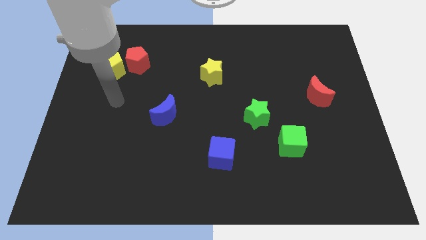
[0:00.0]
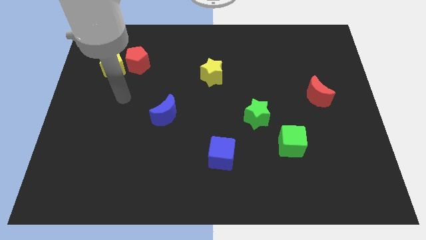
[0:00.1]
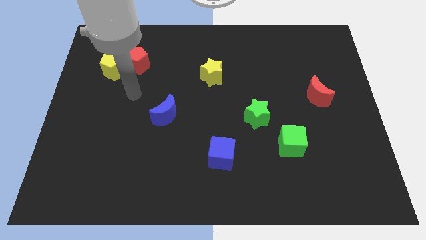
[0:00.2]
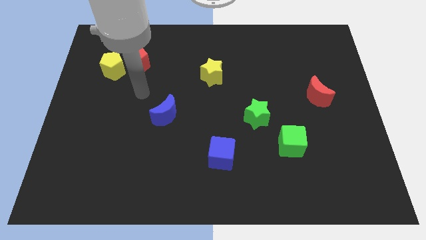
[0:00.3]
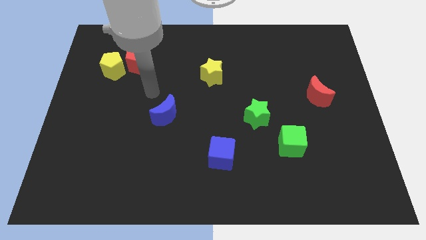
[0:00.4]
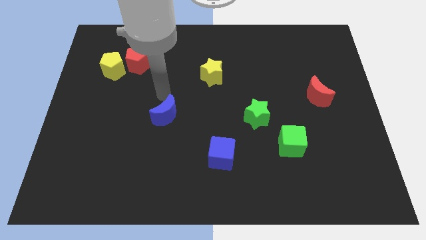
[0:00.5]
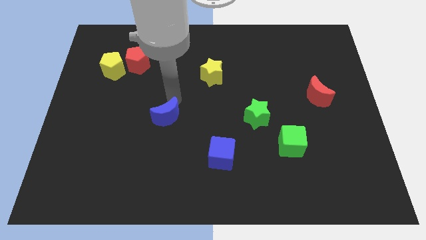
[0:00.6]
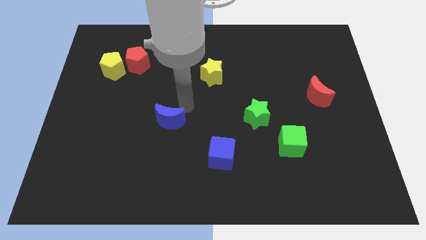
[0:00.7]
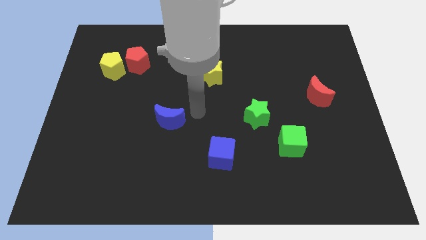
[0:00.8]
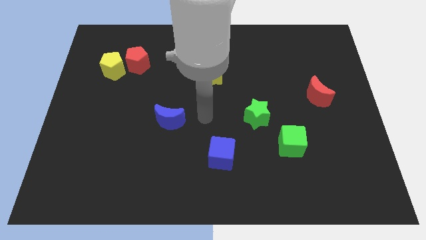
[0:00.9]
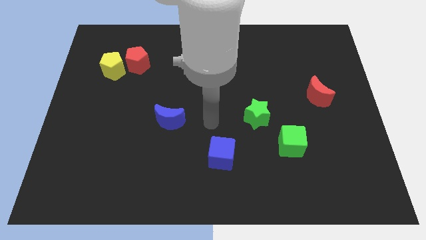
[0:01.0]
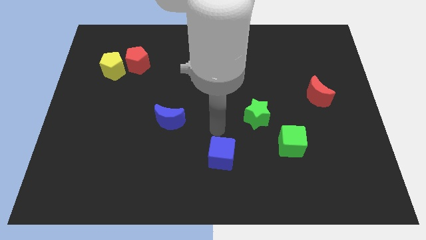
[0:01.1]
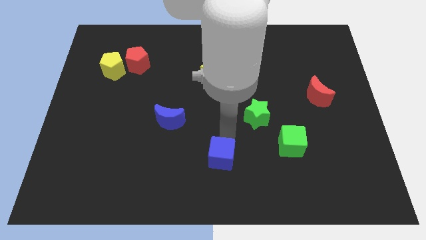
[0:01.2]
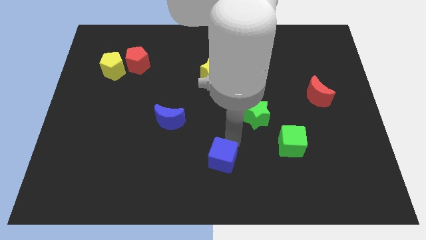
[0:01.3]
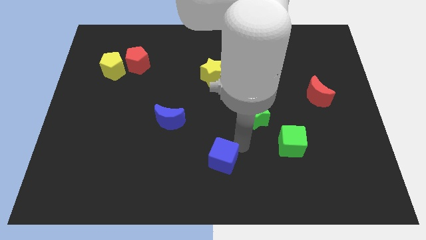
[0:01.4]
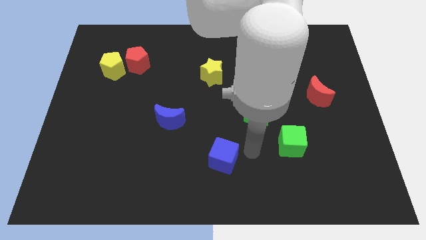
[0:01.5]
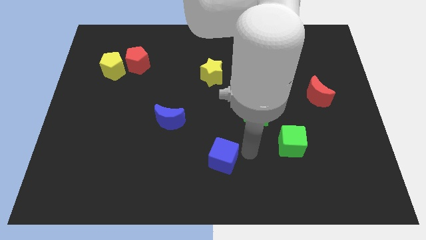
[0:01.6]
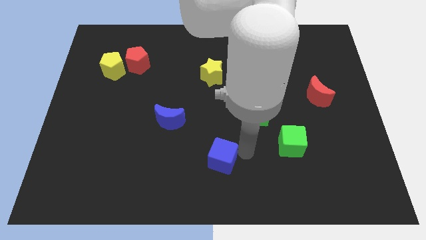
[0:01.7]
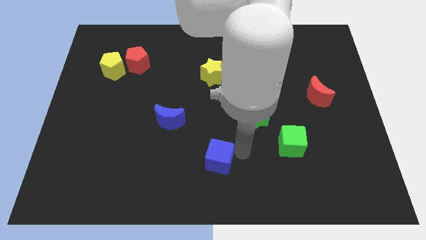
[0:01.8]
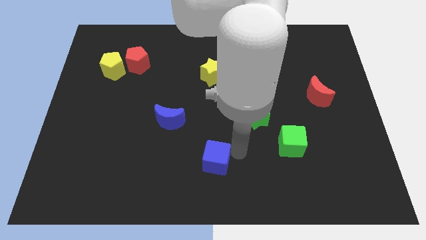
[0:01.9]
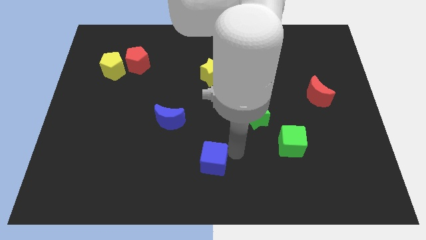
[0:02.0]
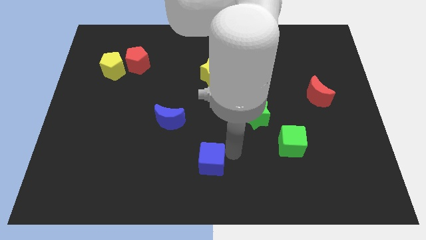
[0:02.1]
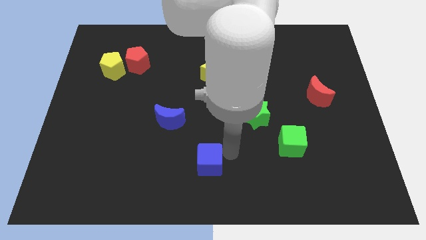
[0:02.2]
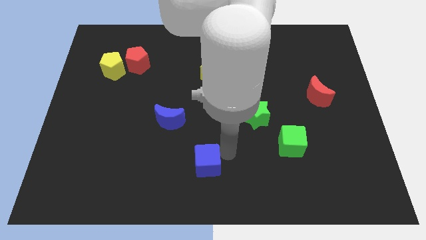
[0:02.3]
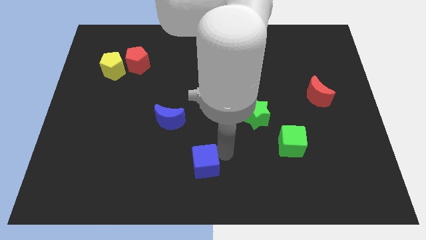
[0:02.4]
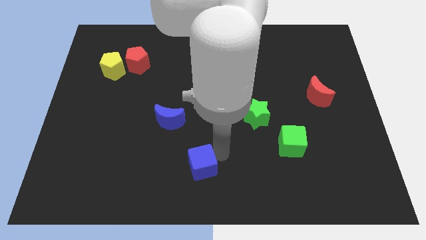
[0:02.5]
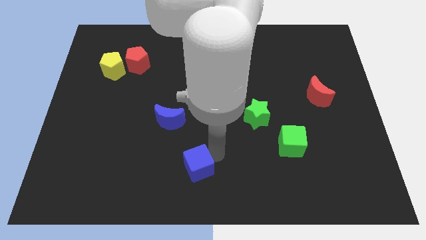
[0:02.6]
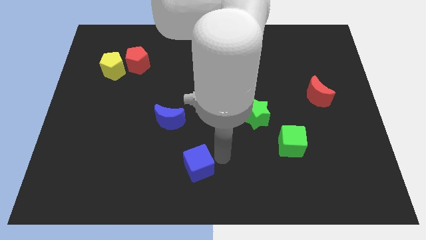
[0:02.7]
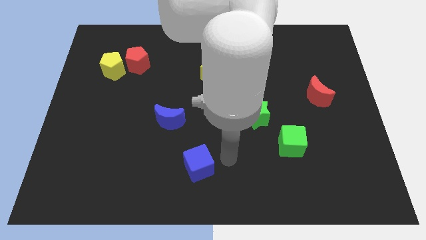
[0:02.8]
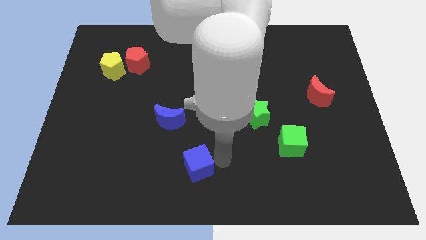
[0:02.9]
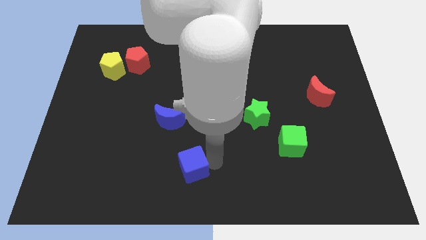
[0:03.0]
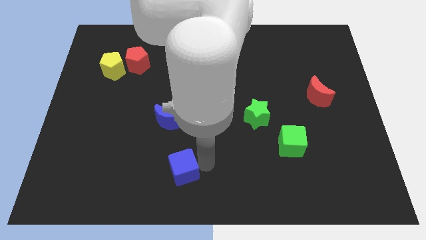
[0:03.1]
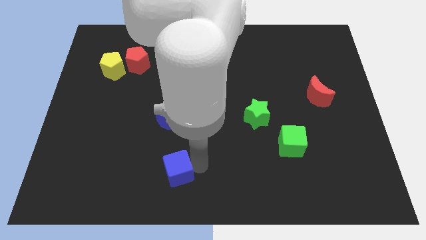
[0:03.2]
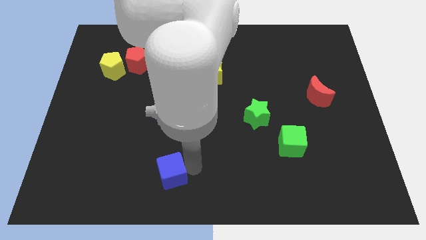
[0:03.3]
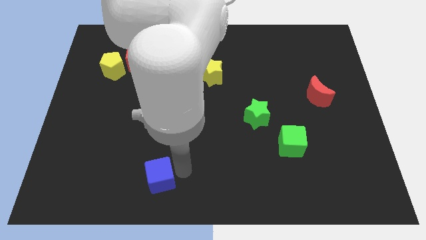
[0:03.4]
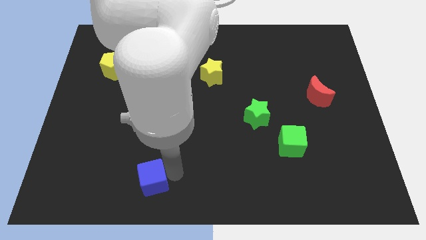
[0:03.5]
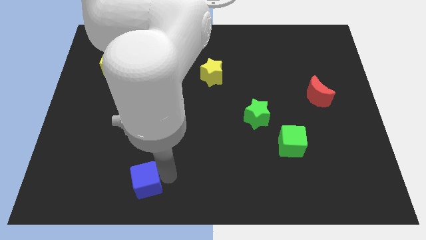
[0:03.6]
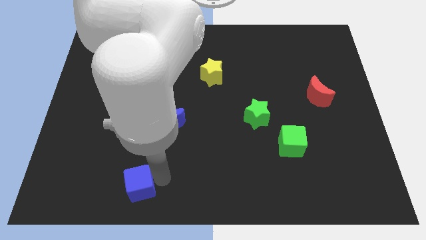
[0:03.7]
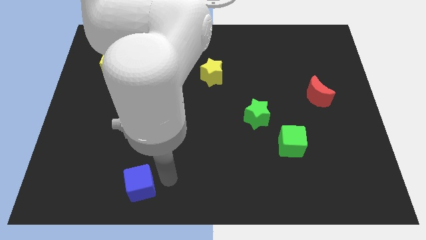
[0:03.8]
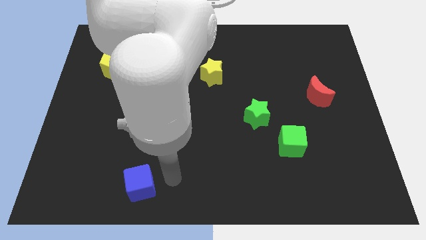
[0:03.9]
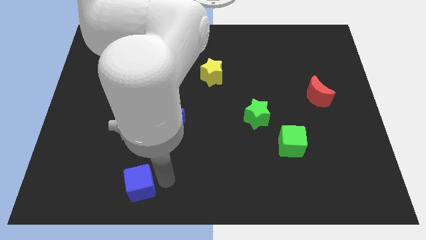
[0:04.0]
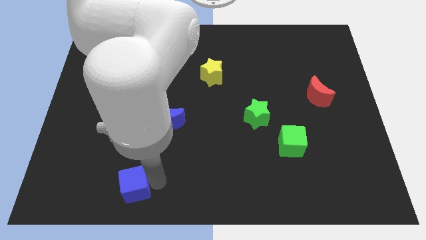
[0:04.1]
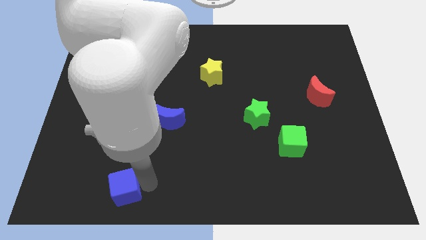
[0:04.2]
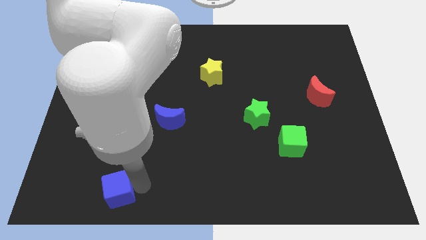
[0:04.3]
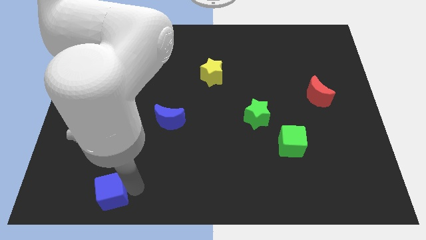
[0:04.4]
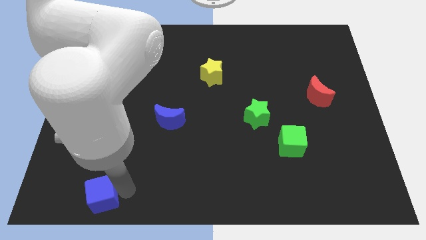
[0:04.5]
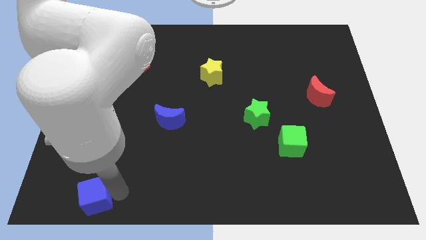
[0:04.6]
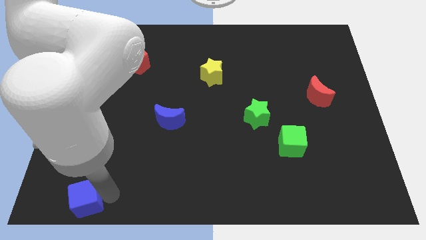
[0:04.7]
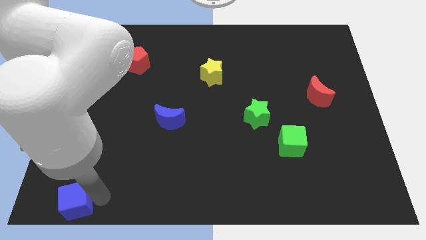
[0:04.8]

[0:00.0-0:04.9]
slide the blue cube to the bottom left of the board
